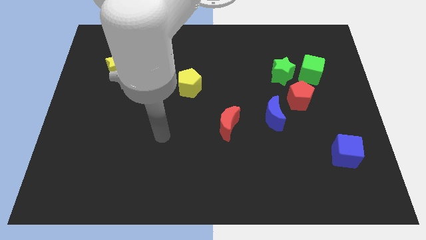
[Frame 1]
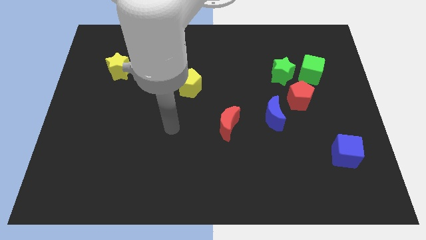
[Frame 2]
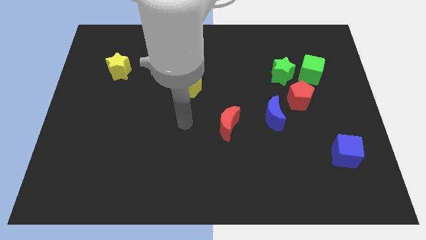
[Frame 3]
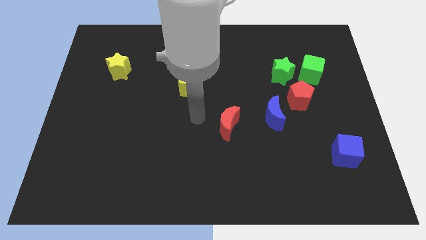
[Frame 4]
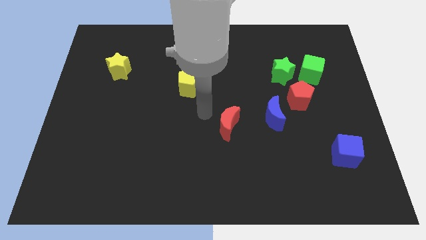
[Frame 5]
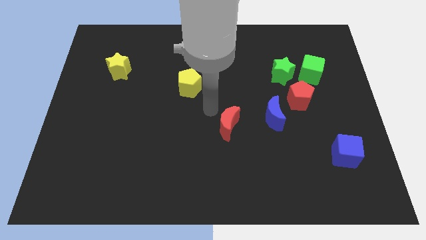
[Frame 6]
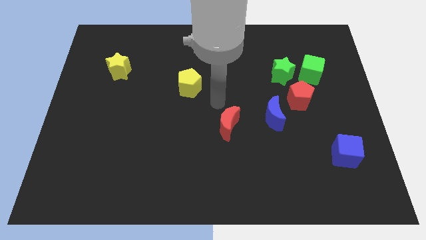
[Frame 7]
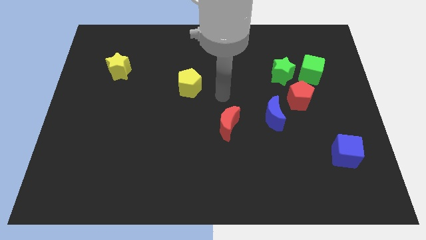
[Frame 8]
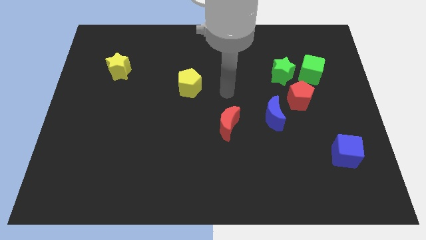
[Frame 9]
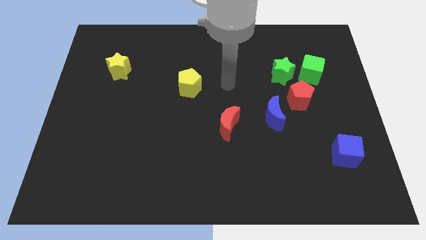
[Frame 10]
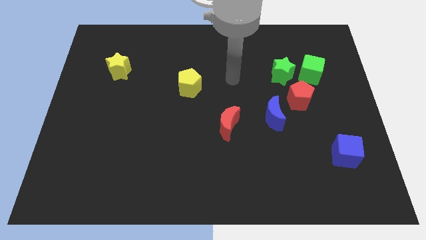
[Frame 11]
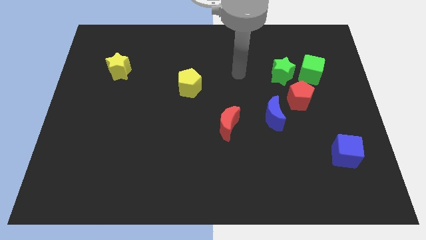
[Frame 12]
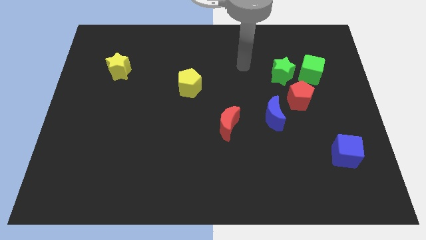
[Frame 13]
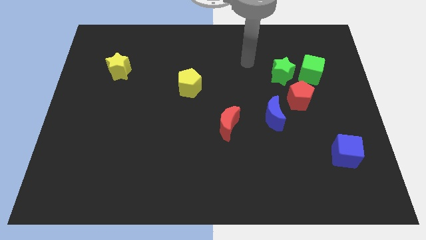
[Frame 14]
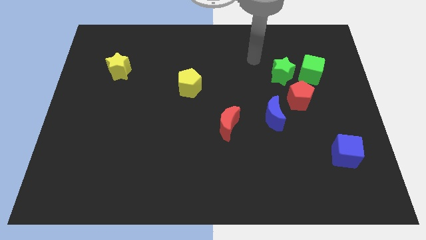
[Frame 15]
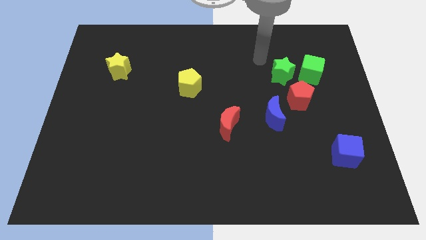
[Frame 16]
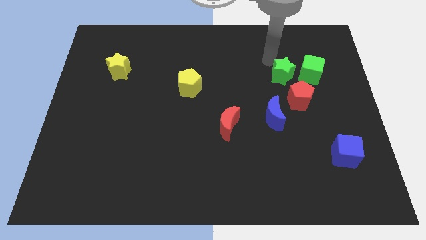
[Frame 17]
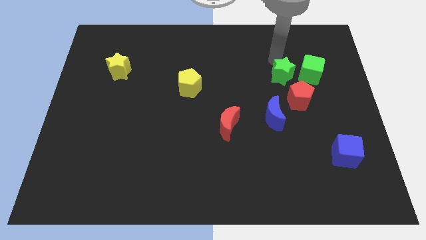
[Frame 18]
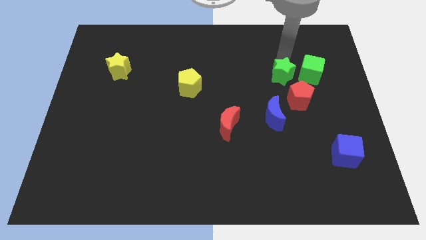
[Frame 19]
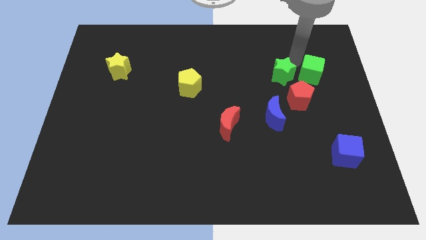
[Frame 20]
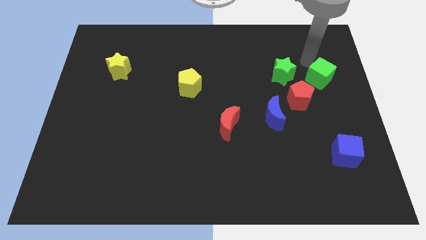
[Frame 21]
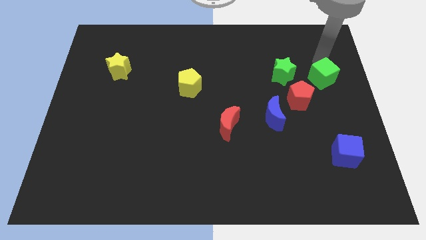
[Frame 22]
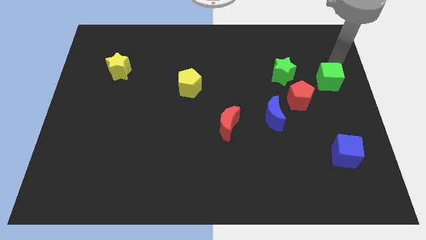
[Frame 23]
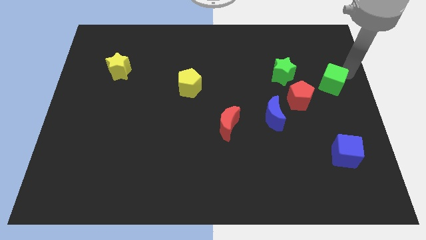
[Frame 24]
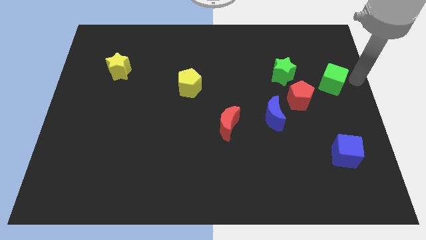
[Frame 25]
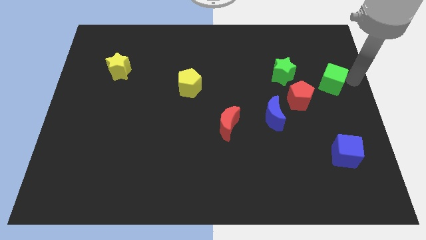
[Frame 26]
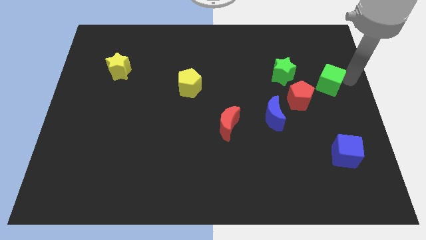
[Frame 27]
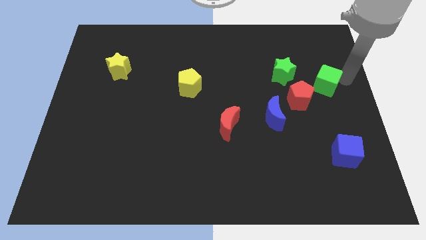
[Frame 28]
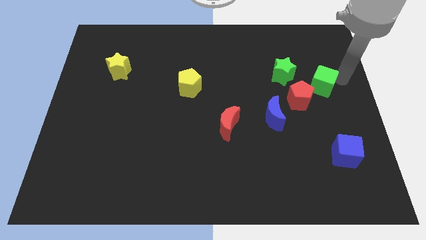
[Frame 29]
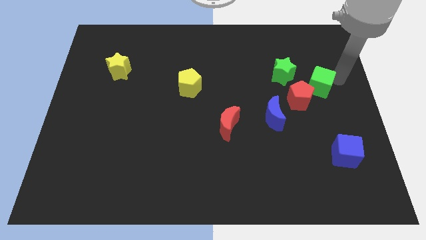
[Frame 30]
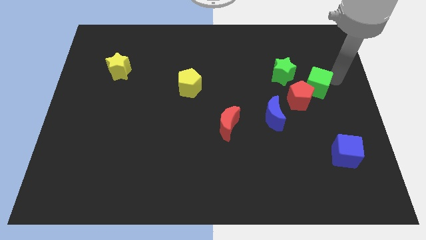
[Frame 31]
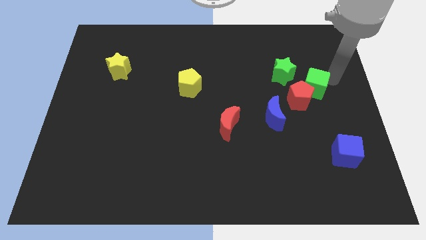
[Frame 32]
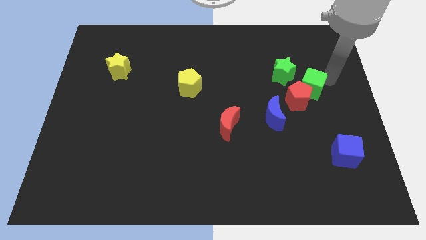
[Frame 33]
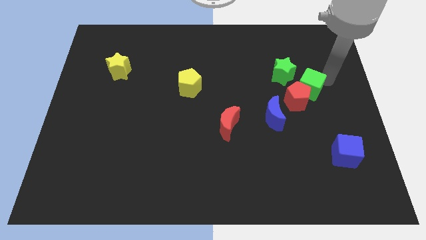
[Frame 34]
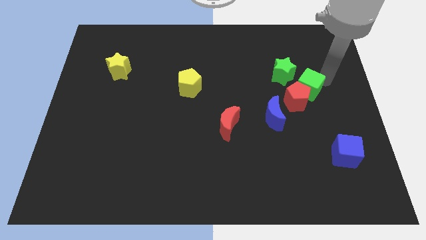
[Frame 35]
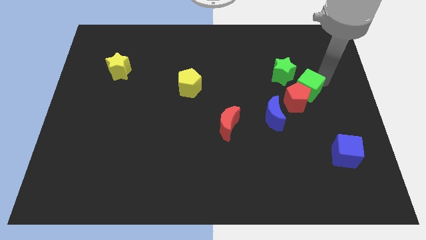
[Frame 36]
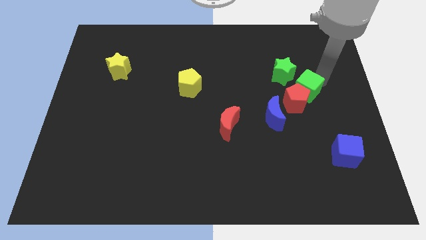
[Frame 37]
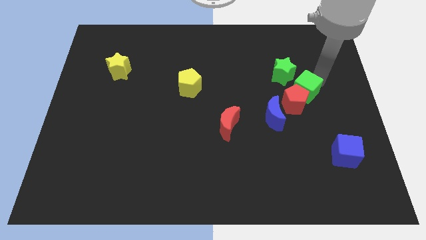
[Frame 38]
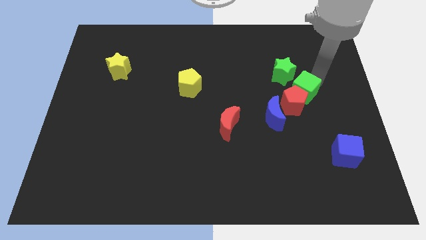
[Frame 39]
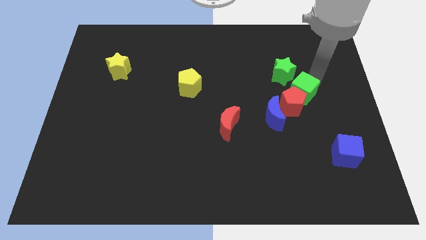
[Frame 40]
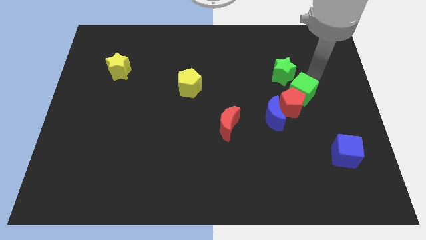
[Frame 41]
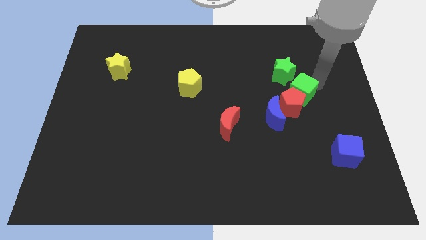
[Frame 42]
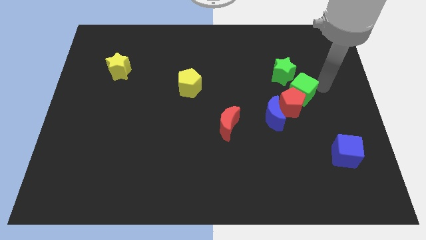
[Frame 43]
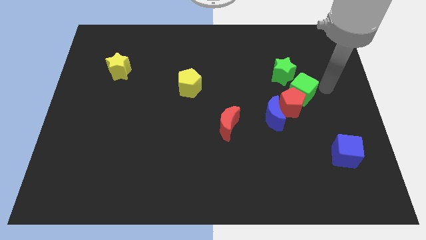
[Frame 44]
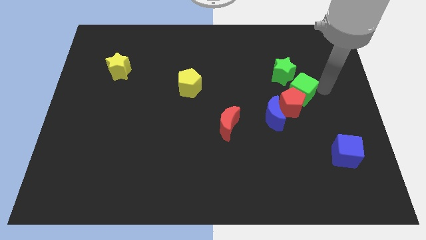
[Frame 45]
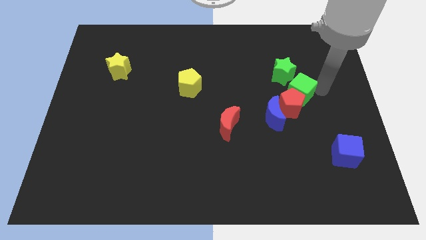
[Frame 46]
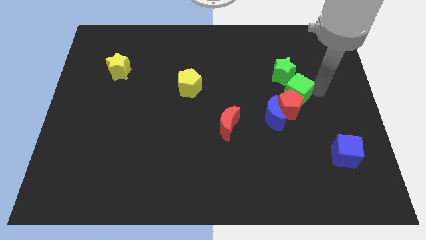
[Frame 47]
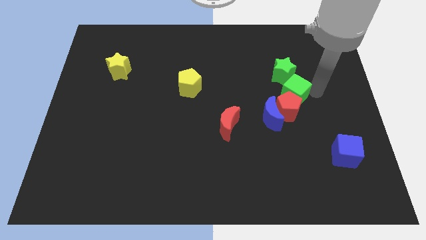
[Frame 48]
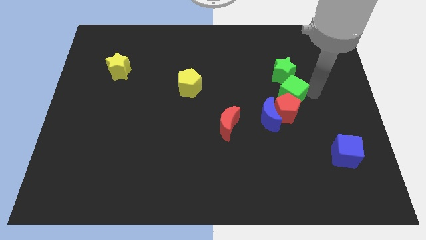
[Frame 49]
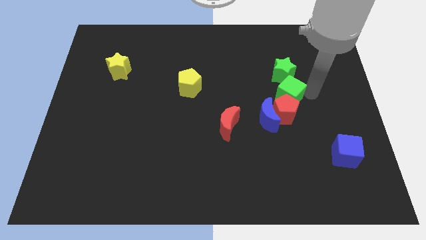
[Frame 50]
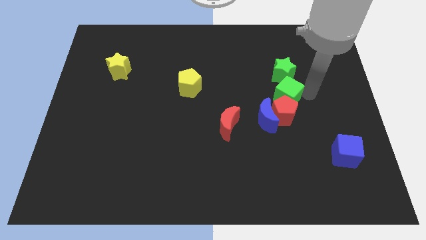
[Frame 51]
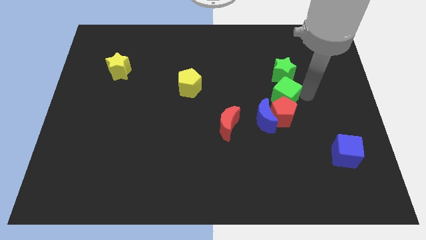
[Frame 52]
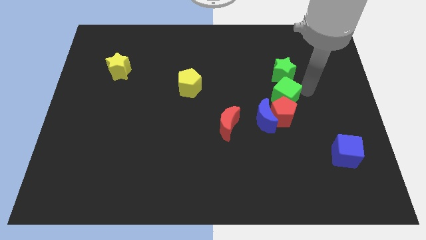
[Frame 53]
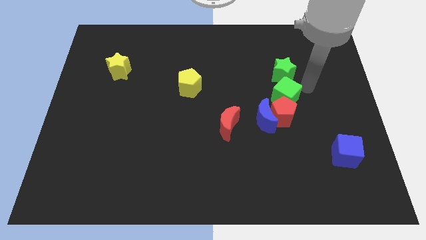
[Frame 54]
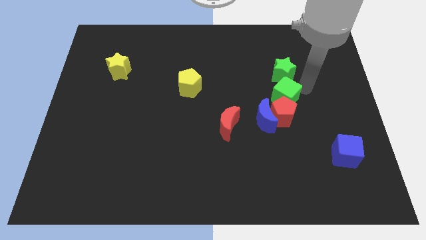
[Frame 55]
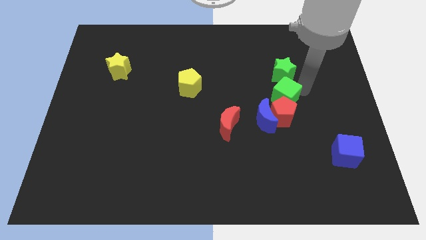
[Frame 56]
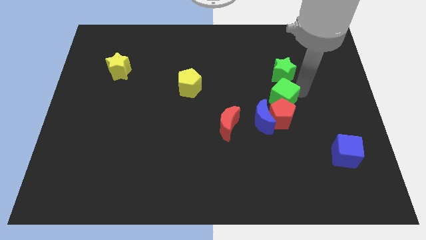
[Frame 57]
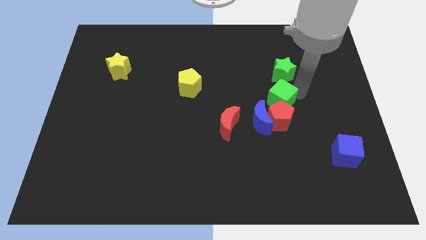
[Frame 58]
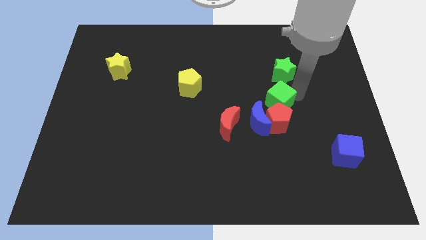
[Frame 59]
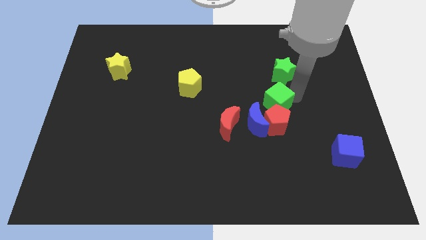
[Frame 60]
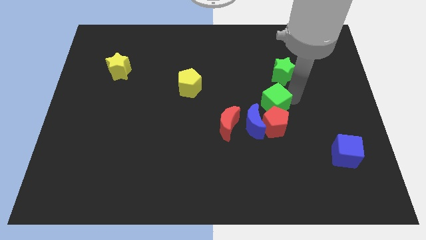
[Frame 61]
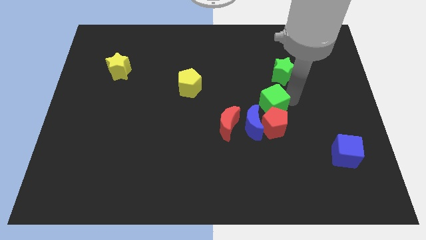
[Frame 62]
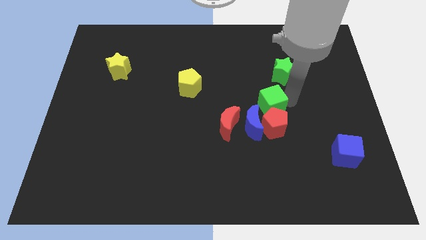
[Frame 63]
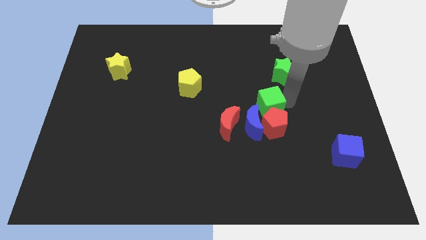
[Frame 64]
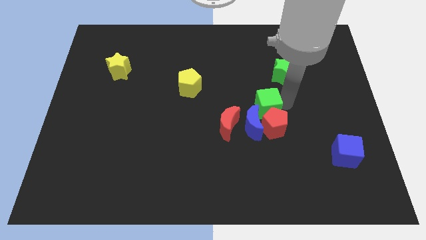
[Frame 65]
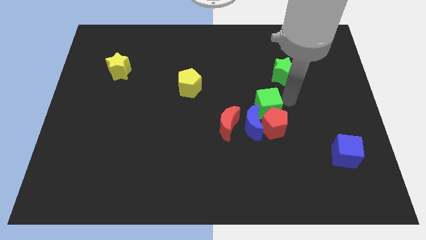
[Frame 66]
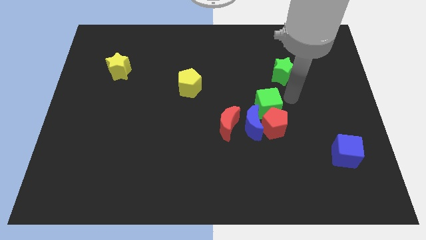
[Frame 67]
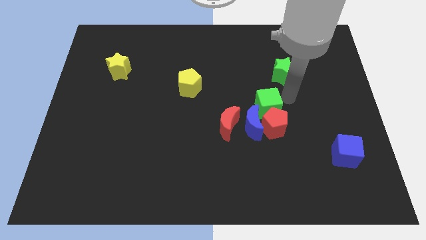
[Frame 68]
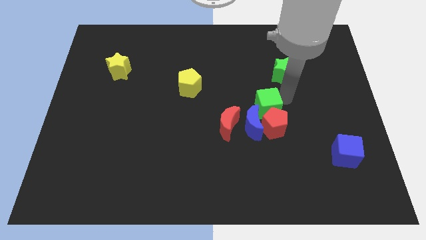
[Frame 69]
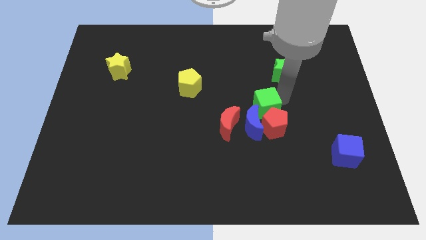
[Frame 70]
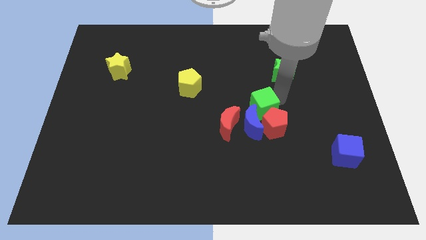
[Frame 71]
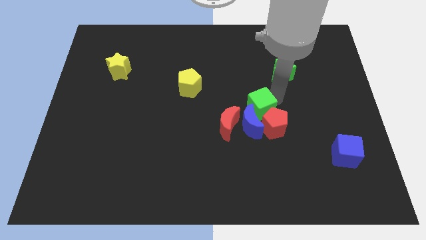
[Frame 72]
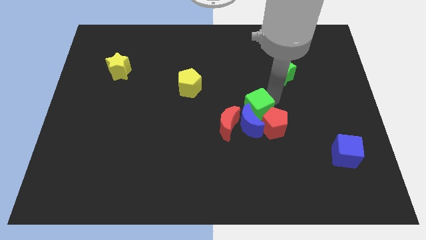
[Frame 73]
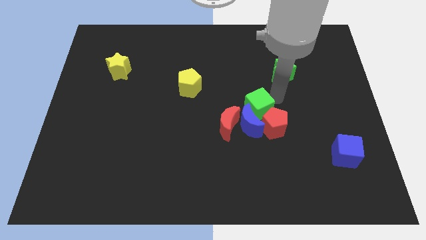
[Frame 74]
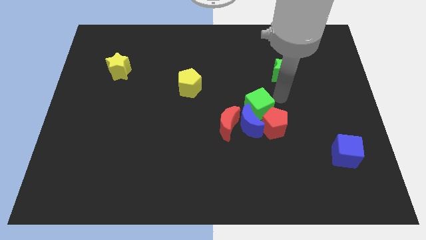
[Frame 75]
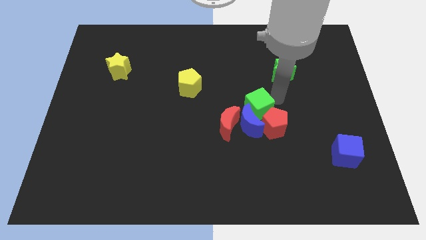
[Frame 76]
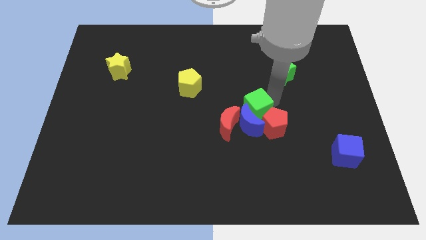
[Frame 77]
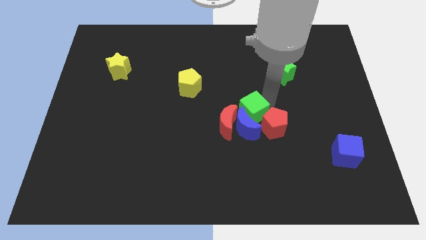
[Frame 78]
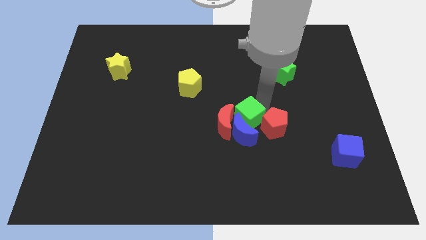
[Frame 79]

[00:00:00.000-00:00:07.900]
slide the green cube close to the red moon
